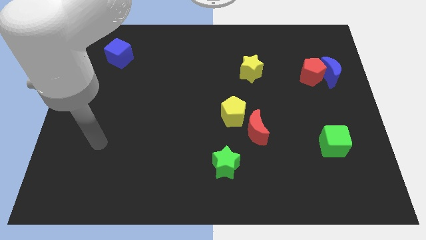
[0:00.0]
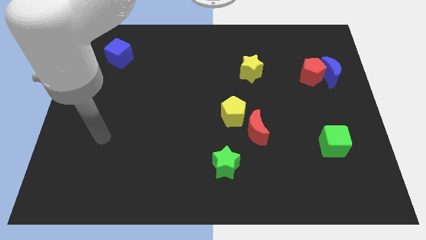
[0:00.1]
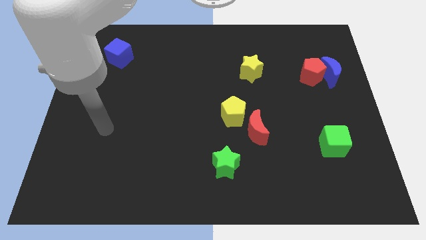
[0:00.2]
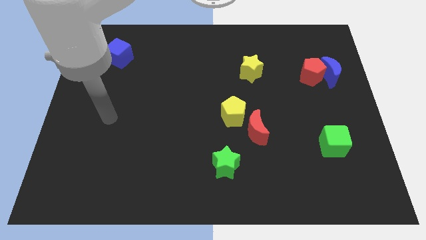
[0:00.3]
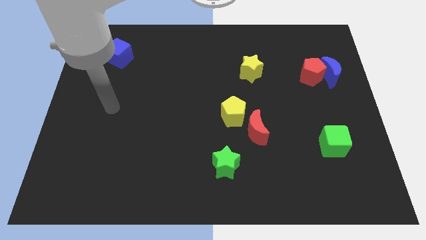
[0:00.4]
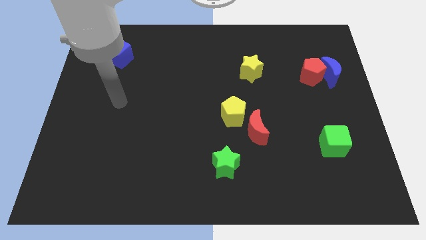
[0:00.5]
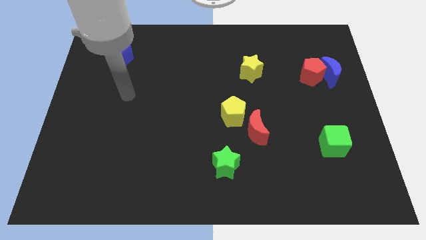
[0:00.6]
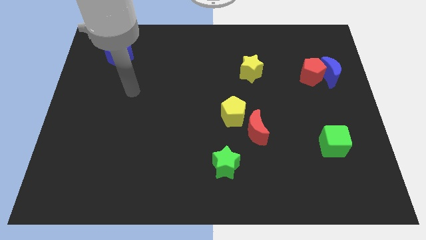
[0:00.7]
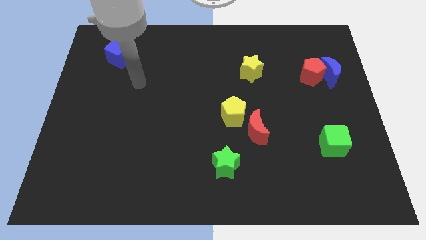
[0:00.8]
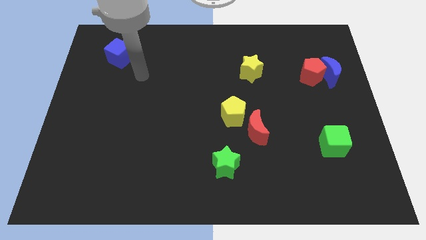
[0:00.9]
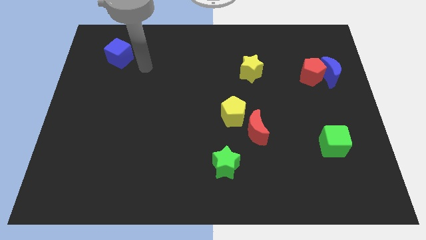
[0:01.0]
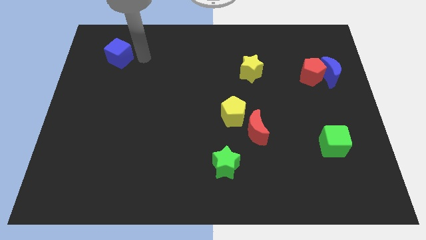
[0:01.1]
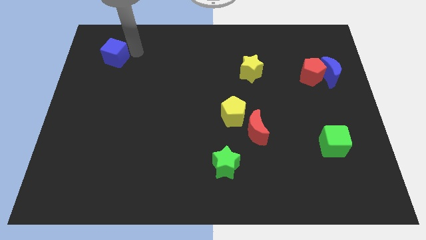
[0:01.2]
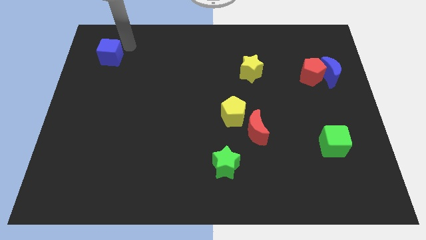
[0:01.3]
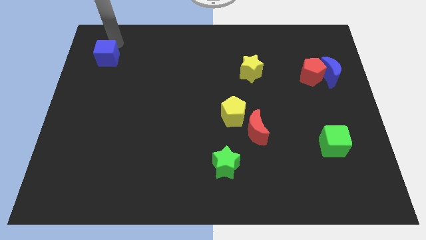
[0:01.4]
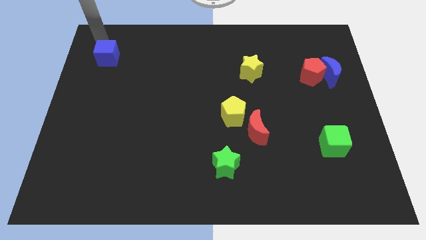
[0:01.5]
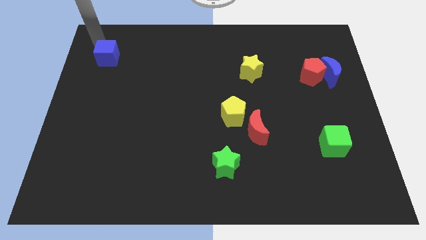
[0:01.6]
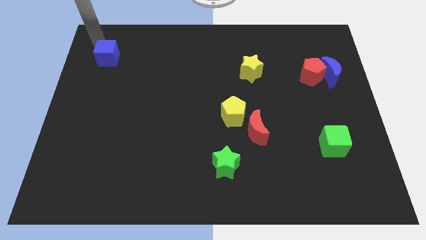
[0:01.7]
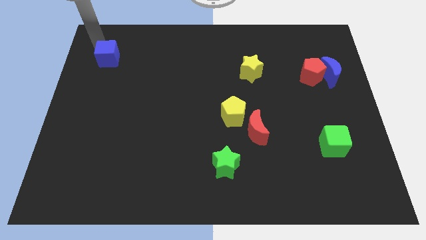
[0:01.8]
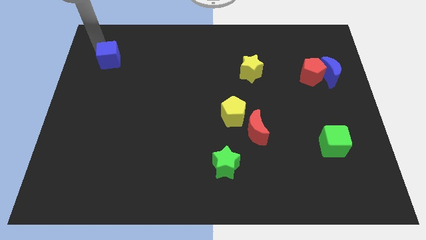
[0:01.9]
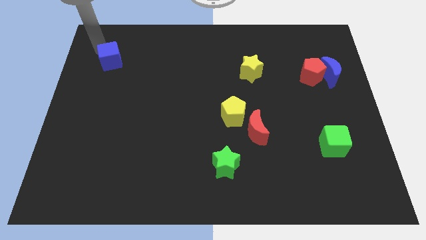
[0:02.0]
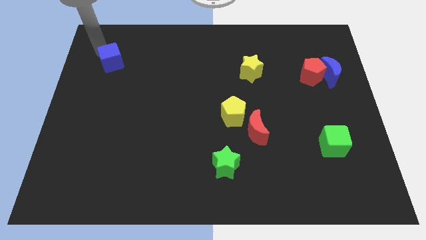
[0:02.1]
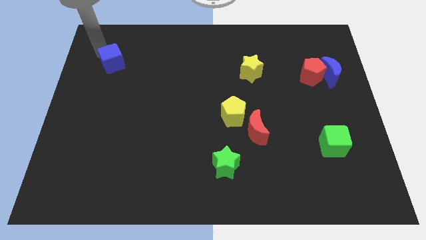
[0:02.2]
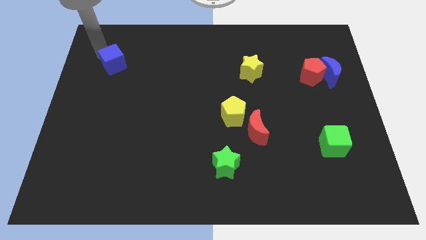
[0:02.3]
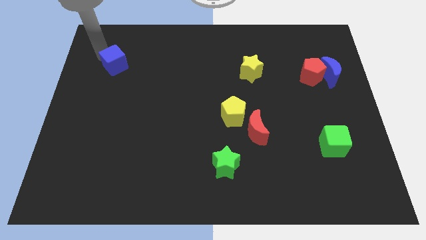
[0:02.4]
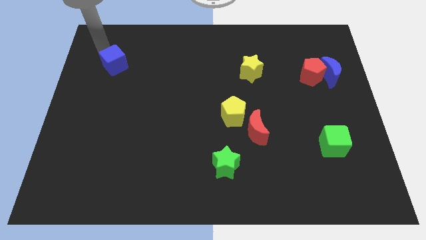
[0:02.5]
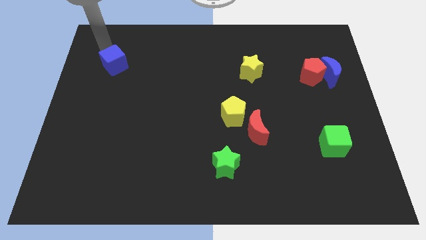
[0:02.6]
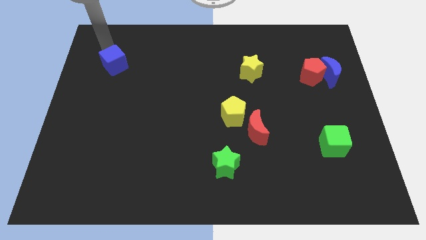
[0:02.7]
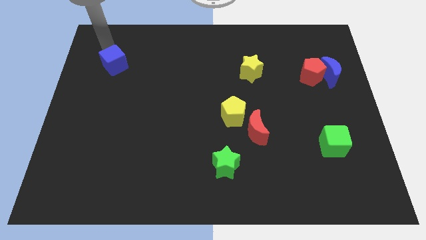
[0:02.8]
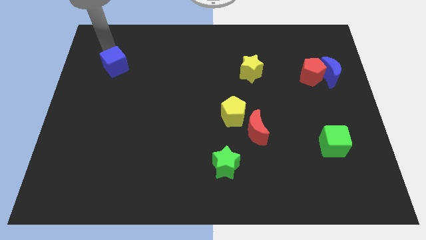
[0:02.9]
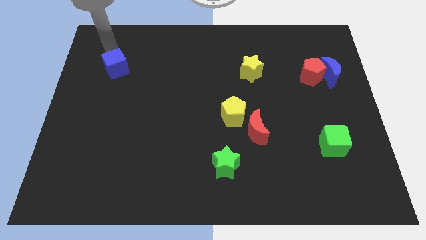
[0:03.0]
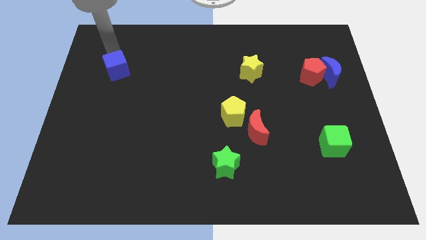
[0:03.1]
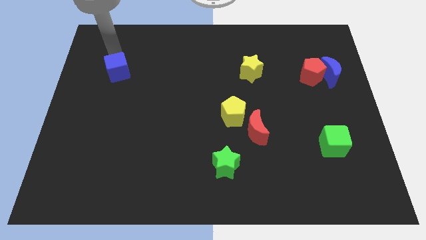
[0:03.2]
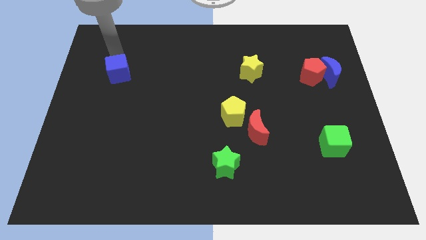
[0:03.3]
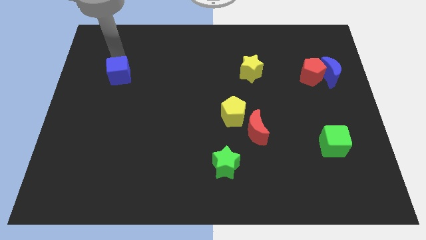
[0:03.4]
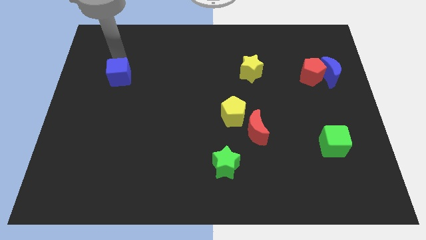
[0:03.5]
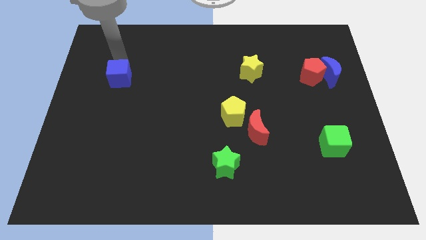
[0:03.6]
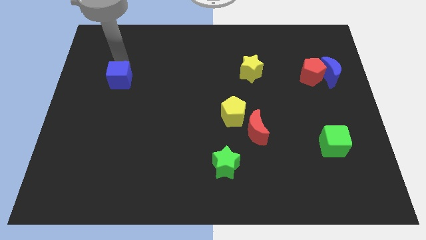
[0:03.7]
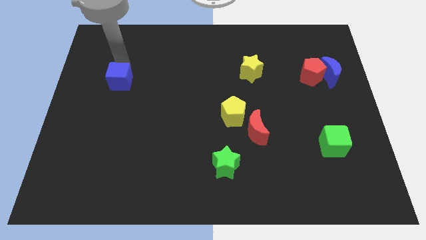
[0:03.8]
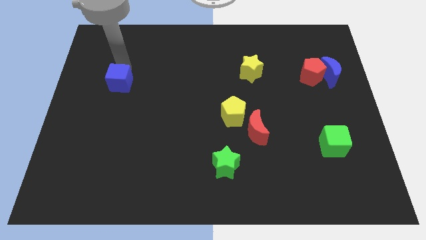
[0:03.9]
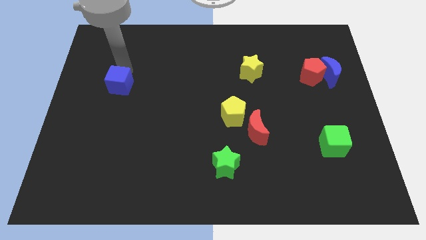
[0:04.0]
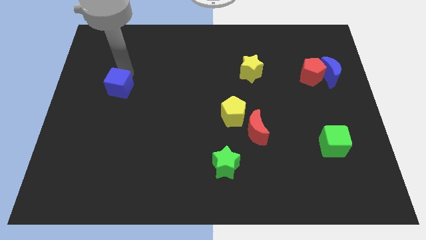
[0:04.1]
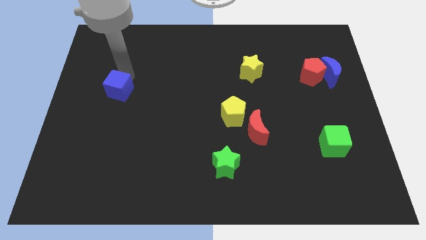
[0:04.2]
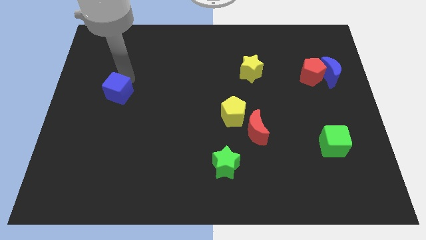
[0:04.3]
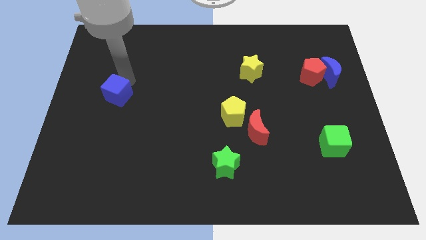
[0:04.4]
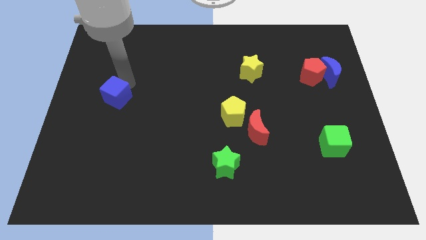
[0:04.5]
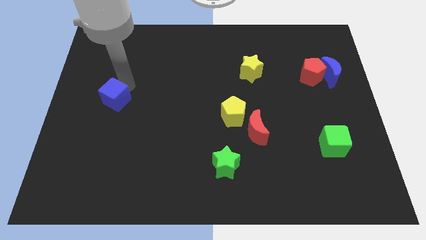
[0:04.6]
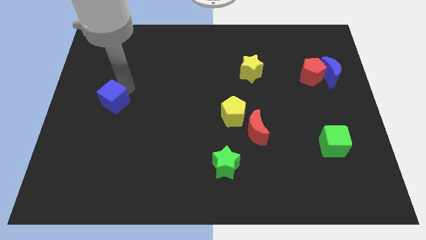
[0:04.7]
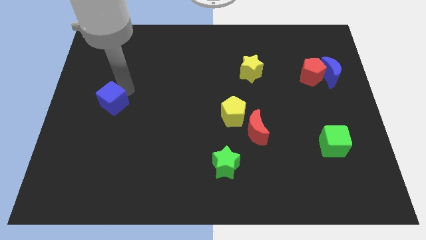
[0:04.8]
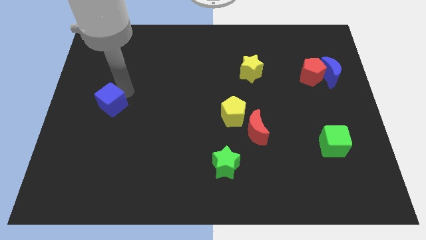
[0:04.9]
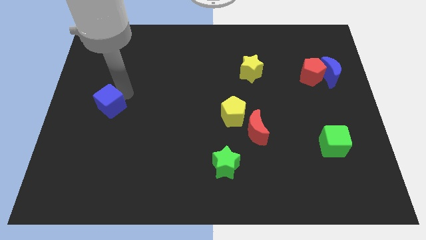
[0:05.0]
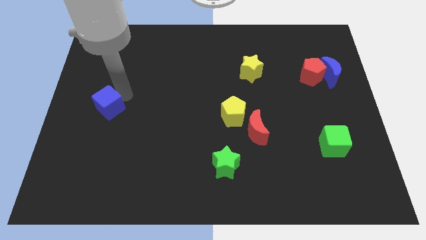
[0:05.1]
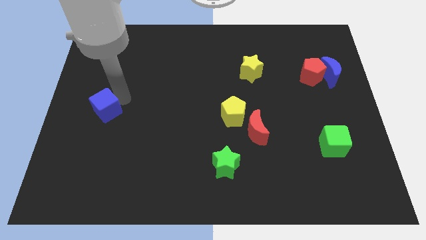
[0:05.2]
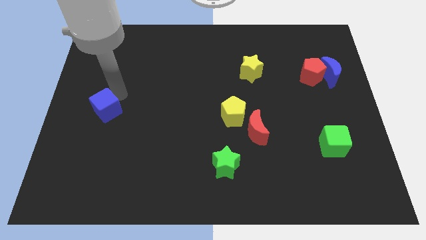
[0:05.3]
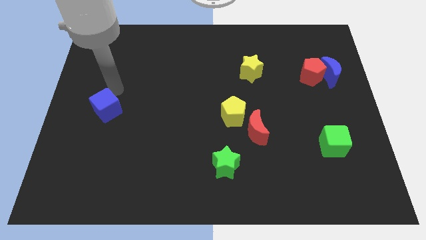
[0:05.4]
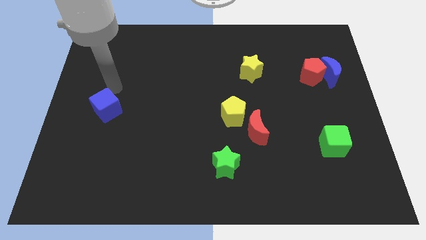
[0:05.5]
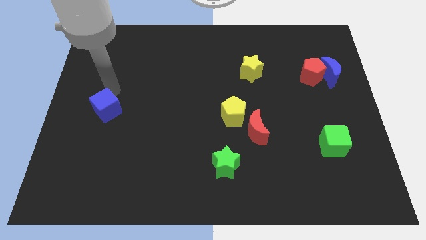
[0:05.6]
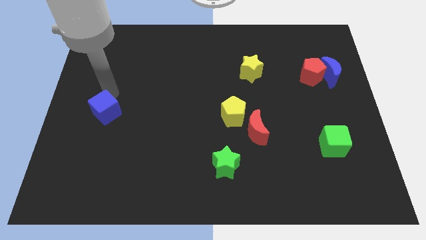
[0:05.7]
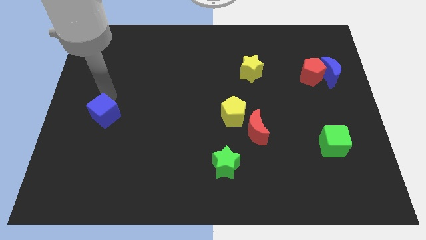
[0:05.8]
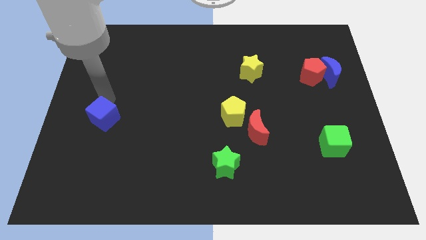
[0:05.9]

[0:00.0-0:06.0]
move the blue cube downwards

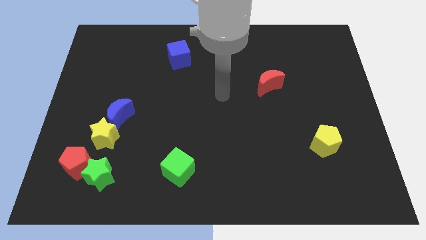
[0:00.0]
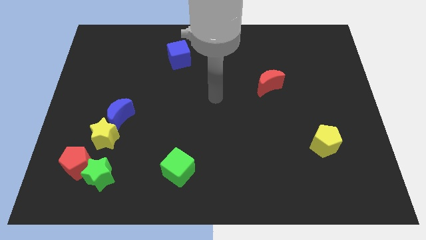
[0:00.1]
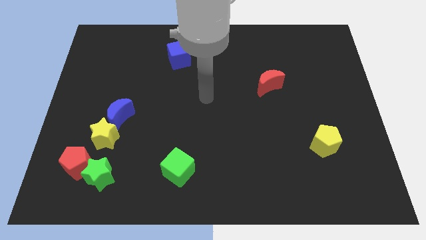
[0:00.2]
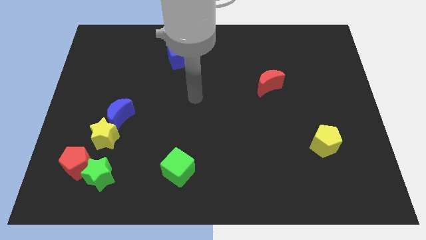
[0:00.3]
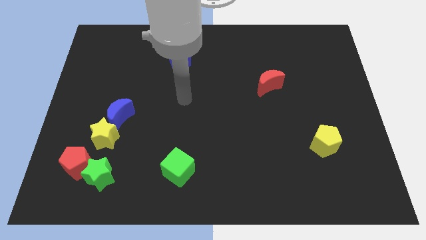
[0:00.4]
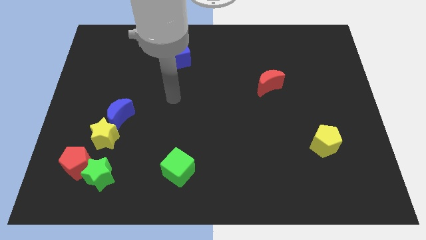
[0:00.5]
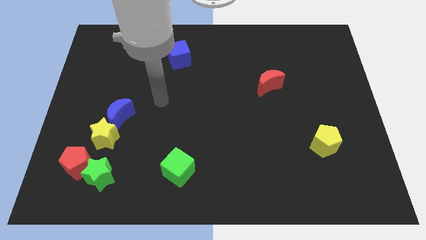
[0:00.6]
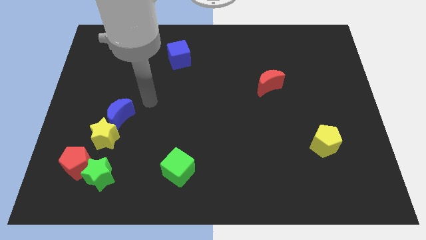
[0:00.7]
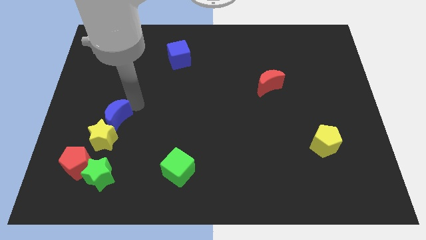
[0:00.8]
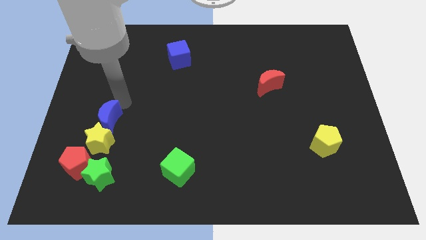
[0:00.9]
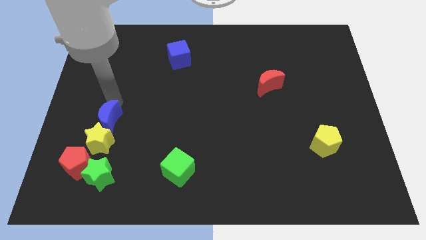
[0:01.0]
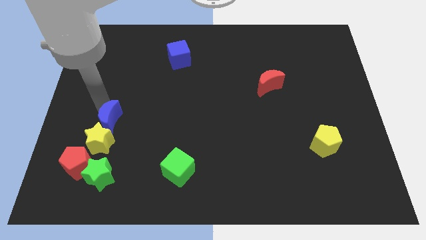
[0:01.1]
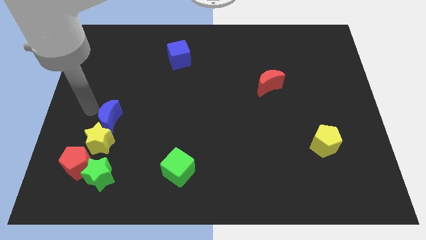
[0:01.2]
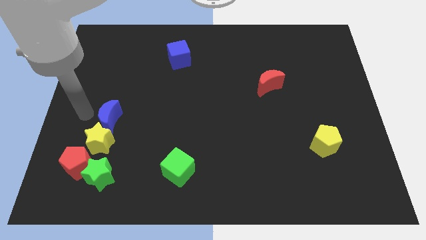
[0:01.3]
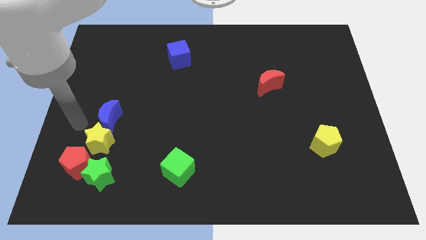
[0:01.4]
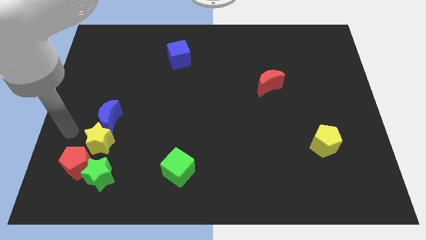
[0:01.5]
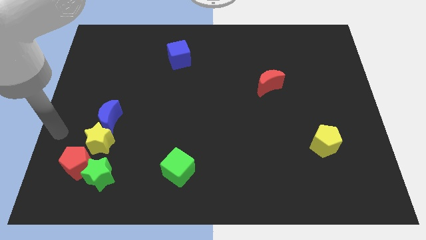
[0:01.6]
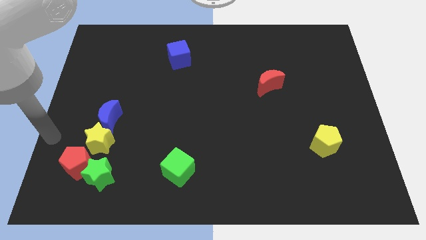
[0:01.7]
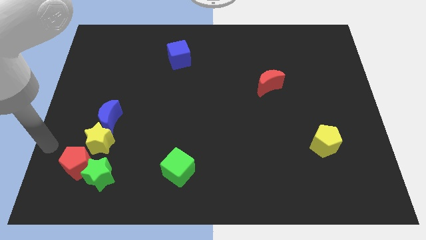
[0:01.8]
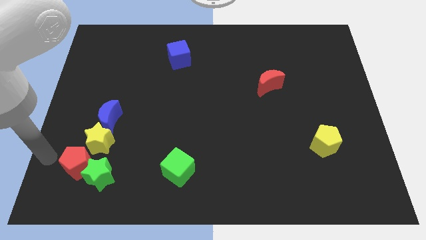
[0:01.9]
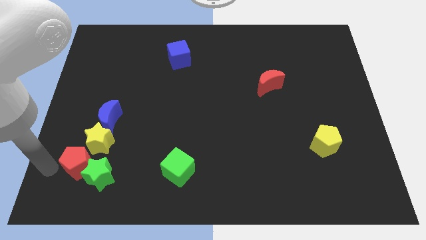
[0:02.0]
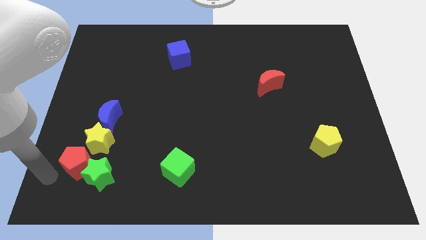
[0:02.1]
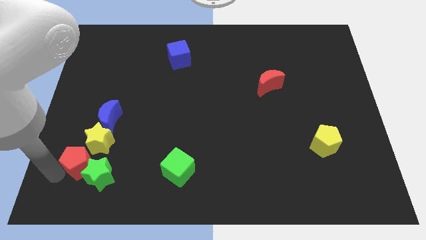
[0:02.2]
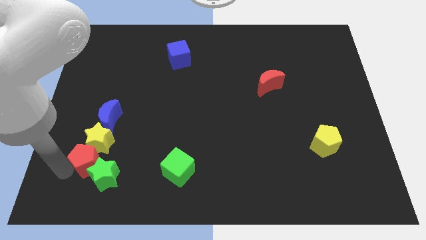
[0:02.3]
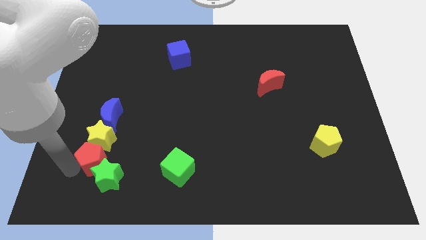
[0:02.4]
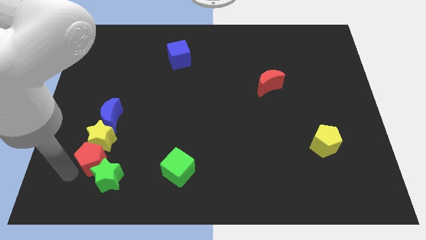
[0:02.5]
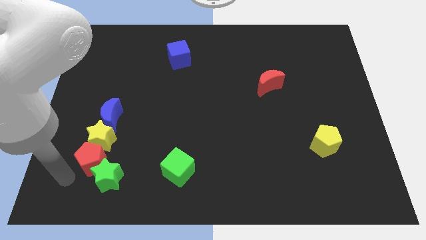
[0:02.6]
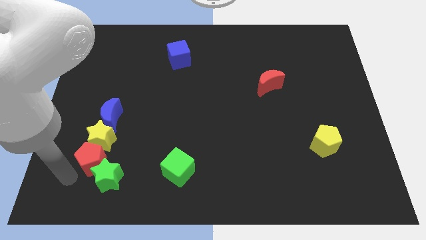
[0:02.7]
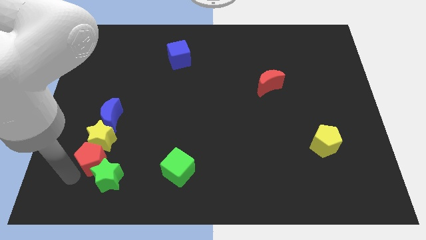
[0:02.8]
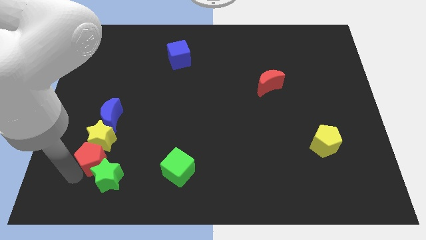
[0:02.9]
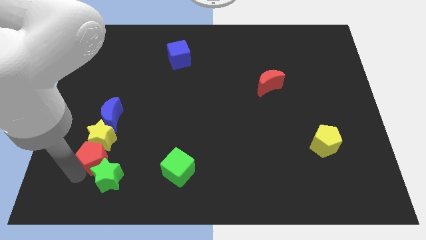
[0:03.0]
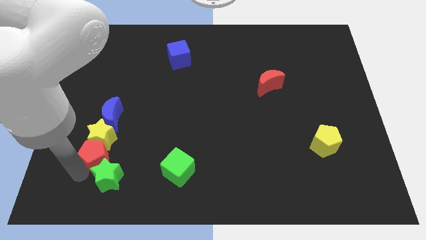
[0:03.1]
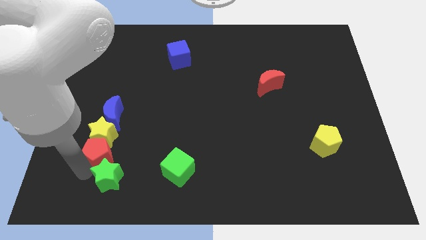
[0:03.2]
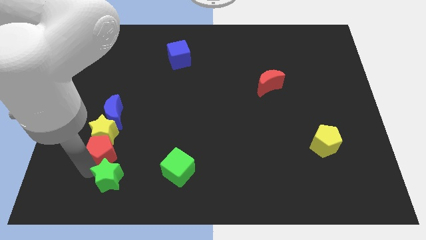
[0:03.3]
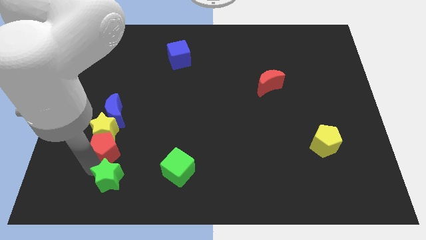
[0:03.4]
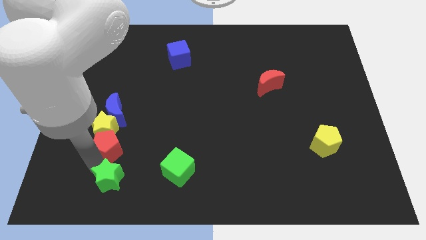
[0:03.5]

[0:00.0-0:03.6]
move the red pentagon a little up and then to the right
